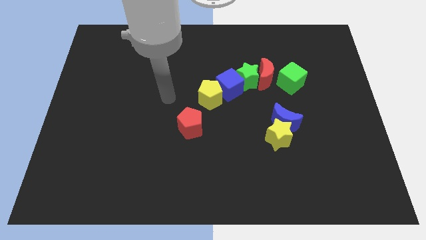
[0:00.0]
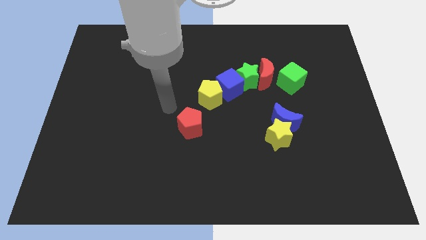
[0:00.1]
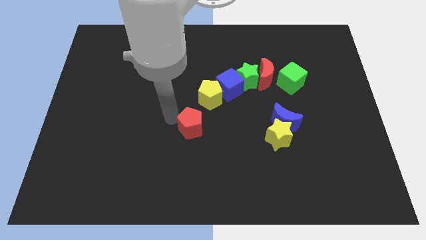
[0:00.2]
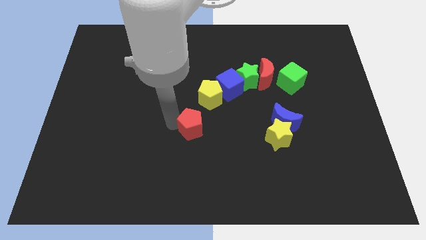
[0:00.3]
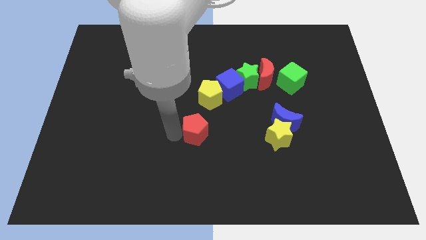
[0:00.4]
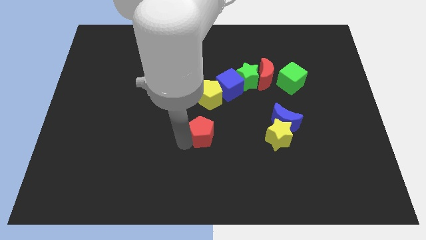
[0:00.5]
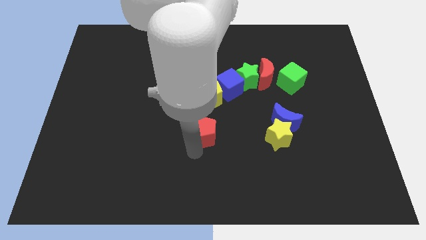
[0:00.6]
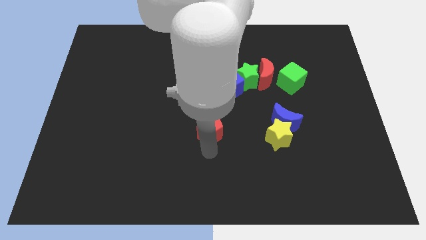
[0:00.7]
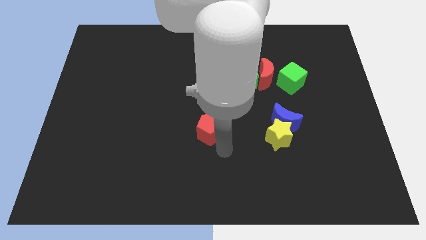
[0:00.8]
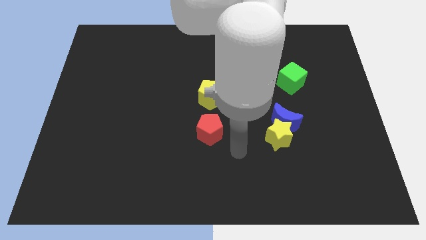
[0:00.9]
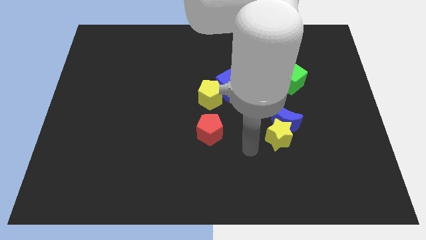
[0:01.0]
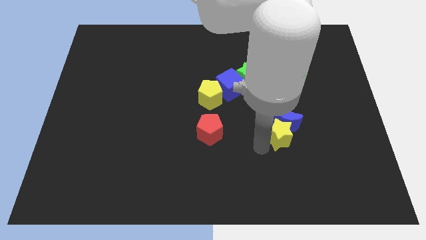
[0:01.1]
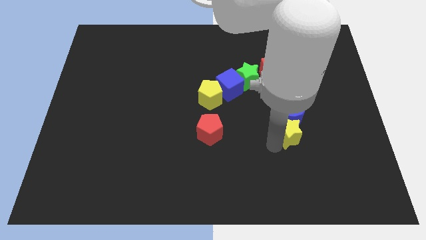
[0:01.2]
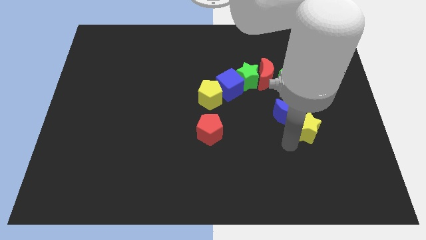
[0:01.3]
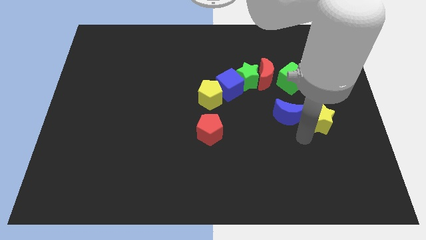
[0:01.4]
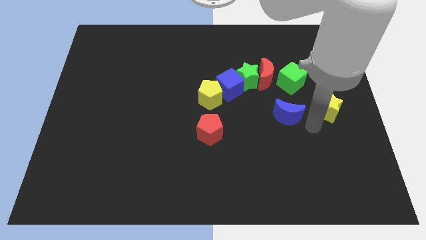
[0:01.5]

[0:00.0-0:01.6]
move the blue moon away from the yellow star

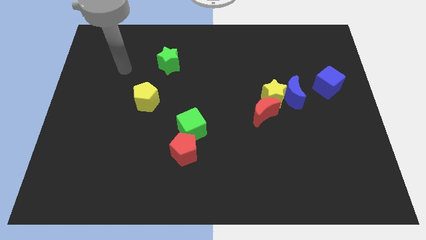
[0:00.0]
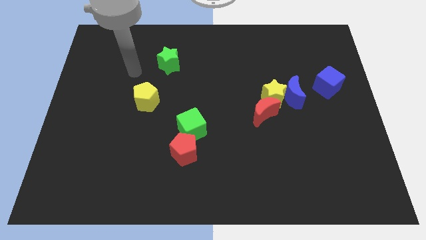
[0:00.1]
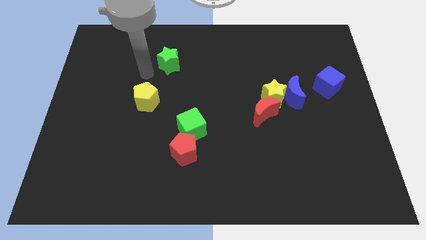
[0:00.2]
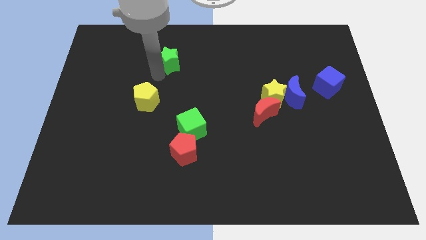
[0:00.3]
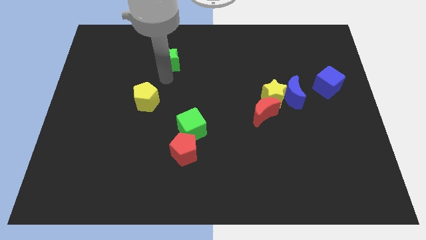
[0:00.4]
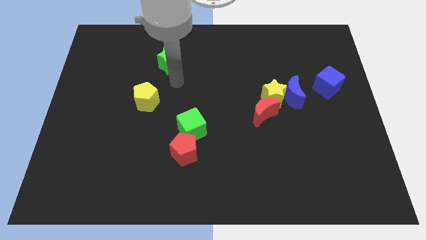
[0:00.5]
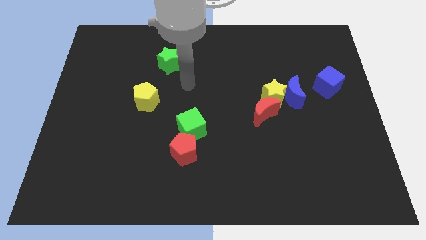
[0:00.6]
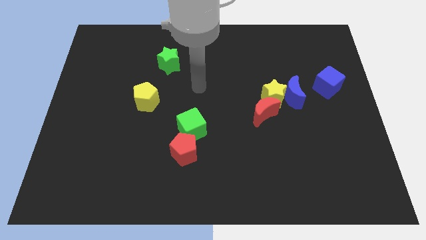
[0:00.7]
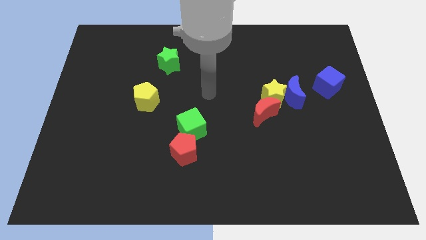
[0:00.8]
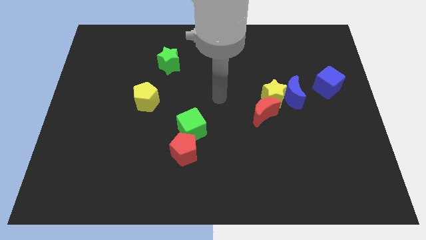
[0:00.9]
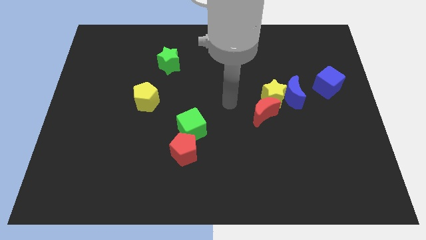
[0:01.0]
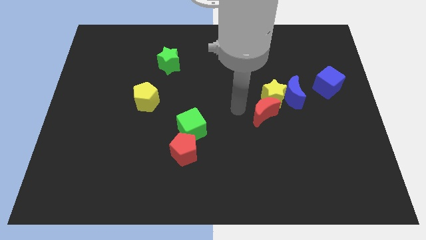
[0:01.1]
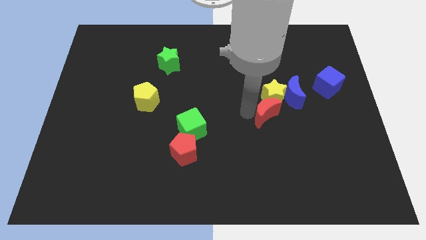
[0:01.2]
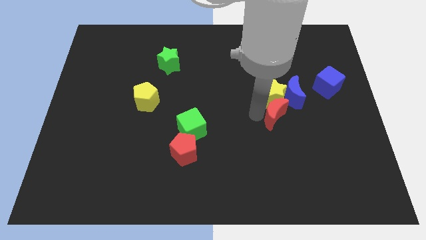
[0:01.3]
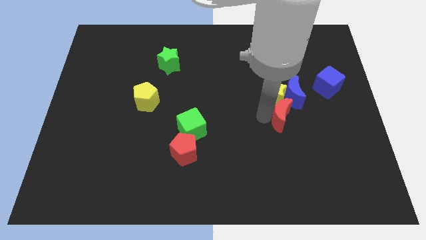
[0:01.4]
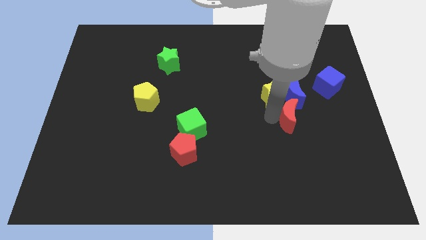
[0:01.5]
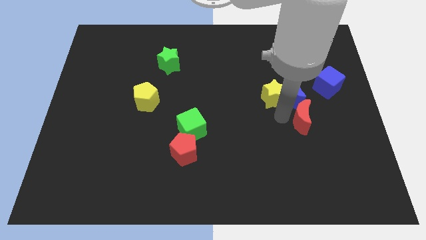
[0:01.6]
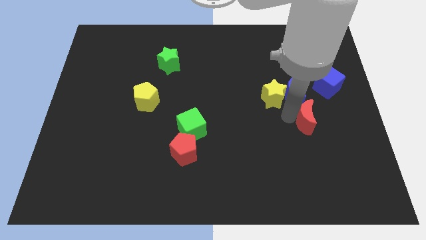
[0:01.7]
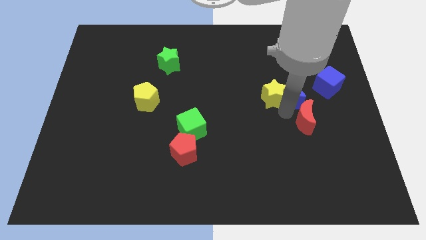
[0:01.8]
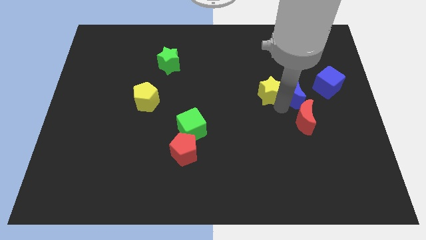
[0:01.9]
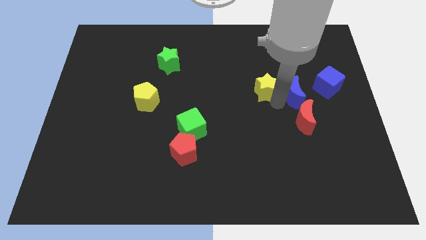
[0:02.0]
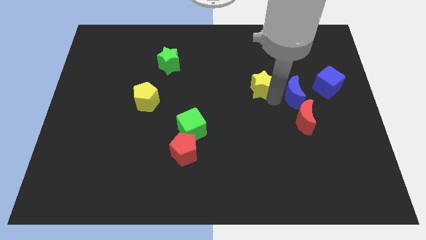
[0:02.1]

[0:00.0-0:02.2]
pull the yellow star apart from the blue moon and red moon

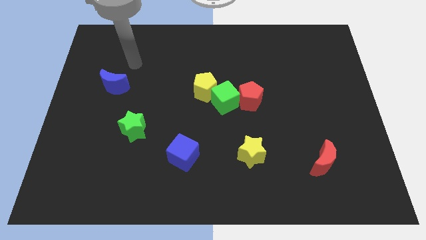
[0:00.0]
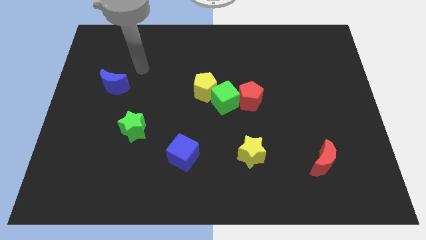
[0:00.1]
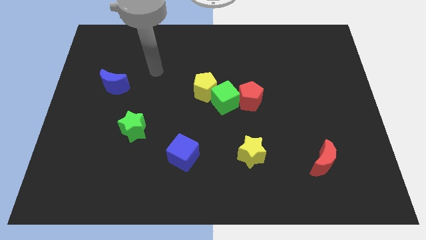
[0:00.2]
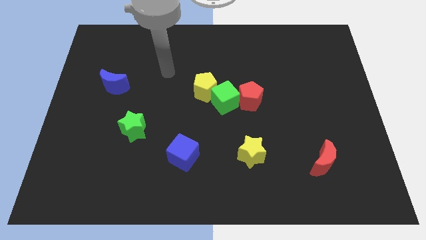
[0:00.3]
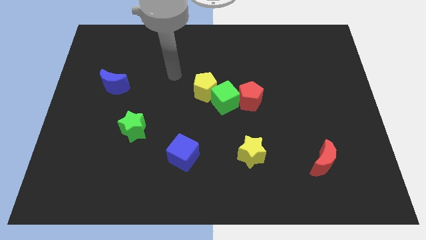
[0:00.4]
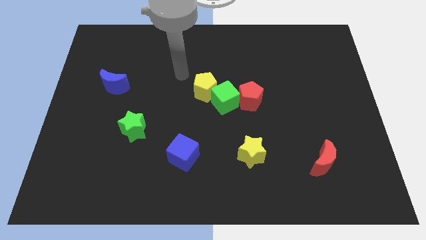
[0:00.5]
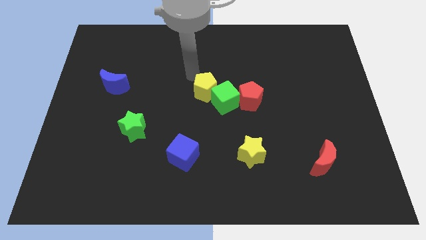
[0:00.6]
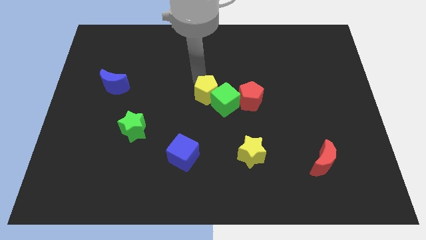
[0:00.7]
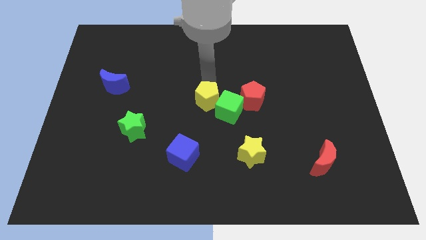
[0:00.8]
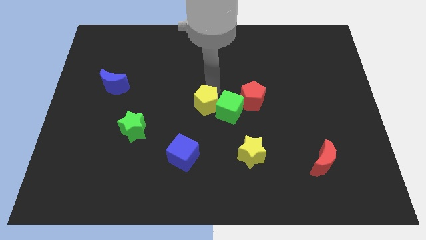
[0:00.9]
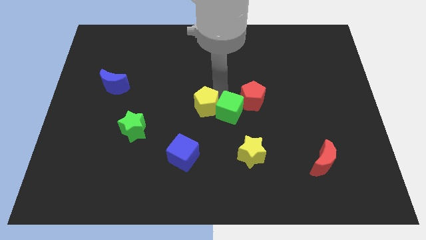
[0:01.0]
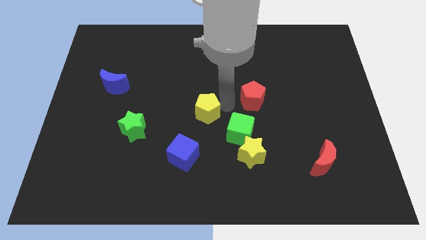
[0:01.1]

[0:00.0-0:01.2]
move the red pentagon away from the green cube

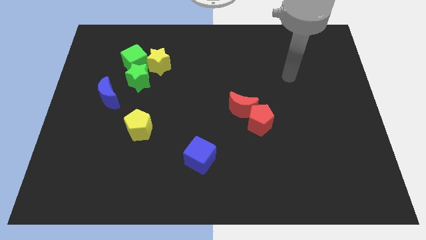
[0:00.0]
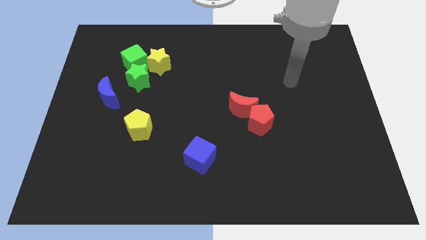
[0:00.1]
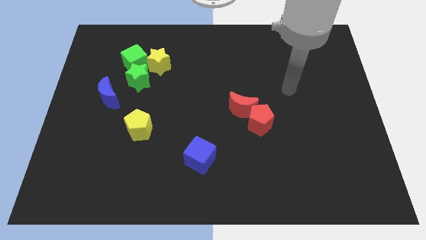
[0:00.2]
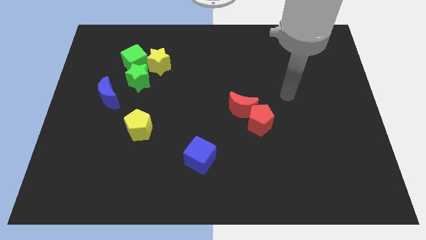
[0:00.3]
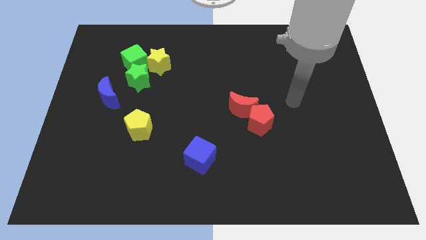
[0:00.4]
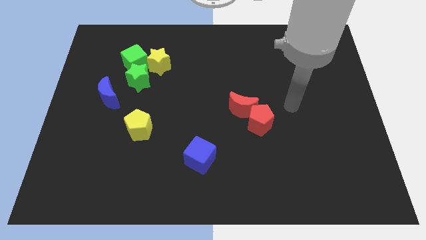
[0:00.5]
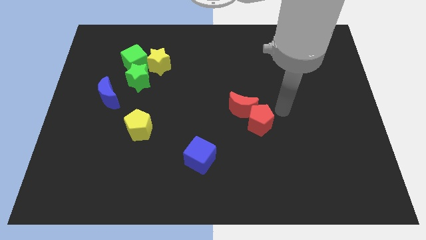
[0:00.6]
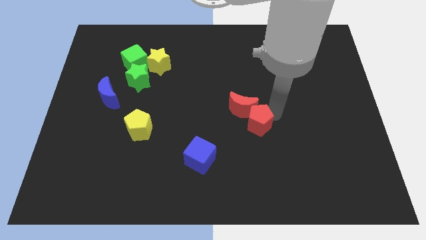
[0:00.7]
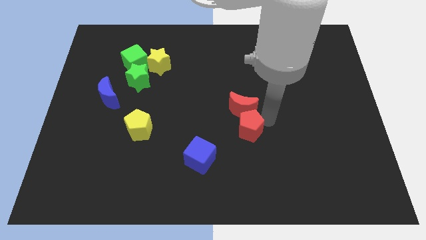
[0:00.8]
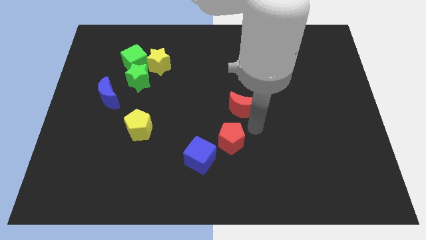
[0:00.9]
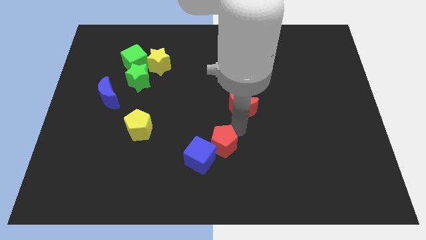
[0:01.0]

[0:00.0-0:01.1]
move the red moon away from the red pentagon

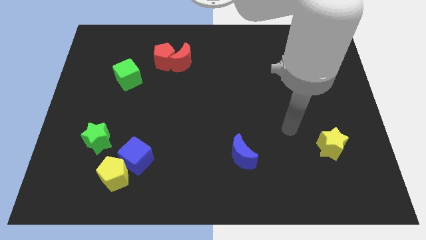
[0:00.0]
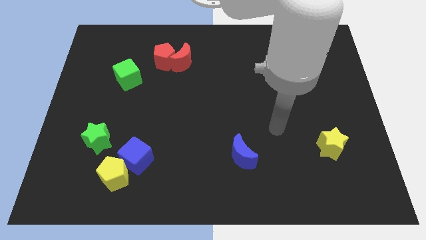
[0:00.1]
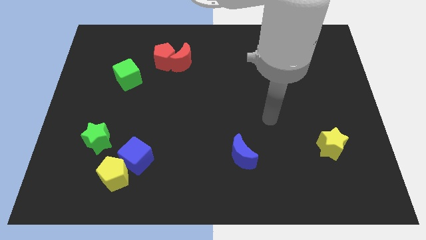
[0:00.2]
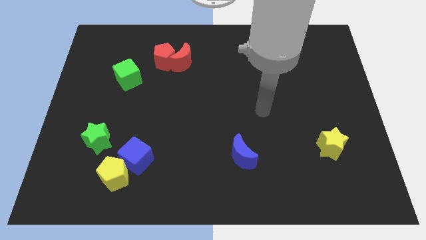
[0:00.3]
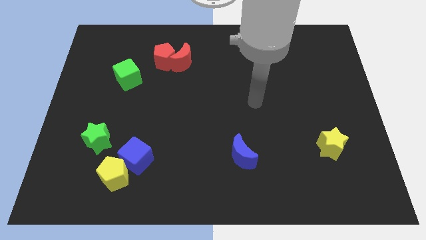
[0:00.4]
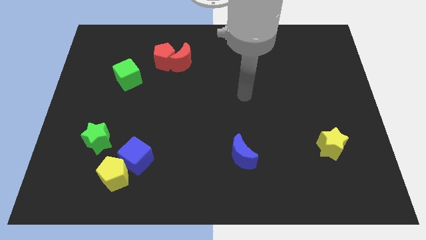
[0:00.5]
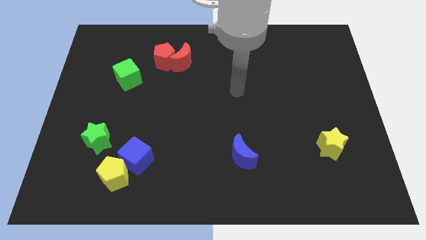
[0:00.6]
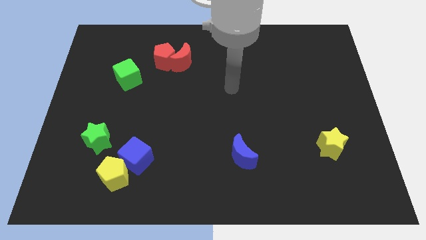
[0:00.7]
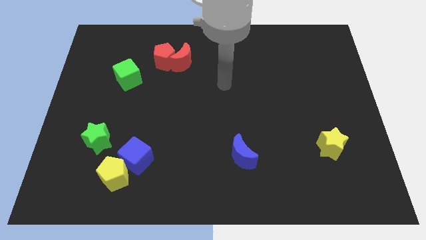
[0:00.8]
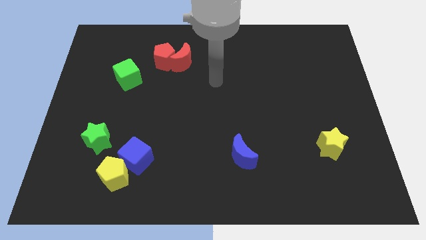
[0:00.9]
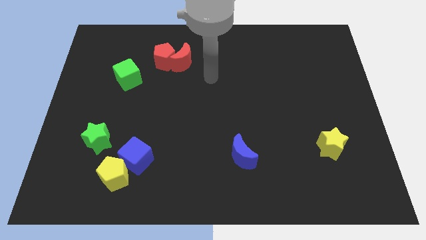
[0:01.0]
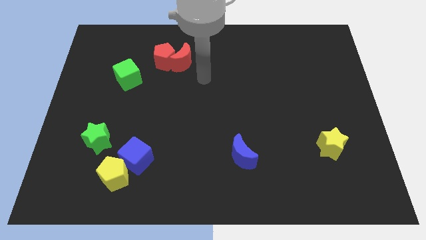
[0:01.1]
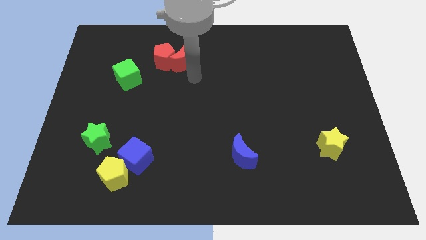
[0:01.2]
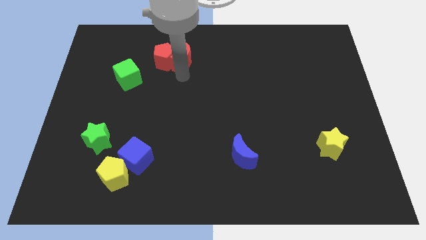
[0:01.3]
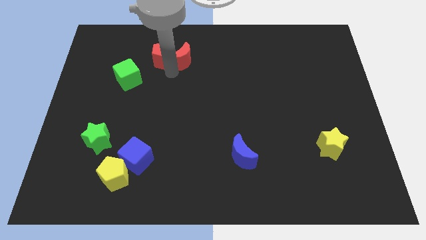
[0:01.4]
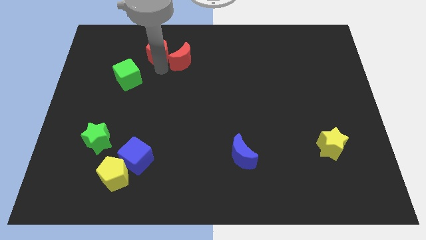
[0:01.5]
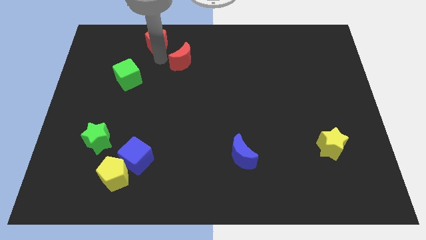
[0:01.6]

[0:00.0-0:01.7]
separate the red moon from the red pentagon

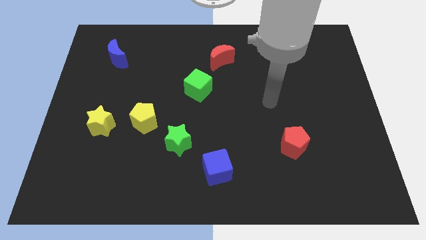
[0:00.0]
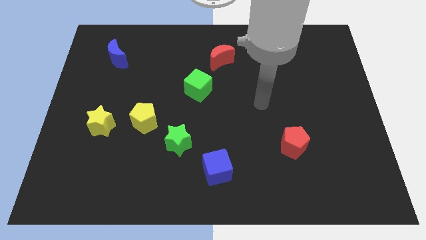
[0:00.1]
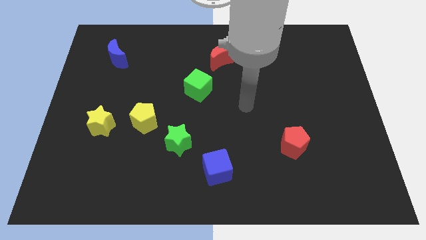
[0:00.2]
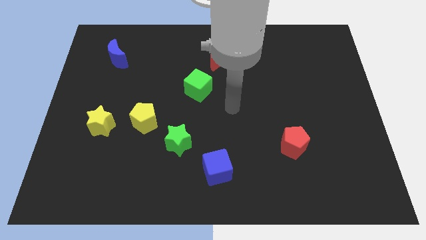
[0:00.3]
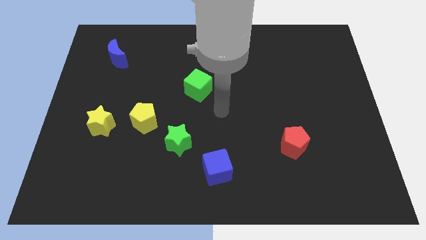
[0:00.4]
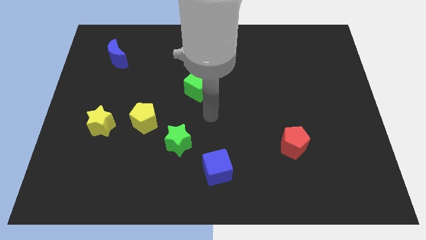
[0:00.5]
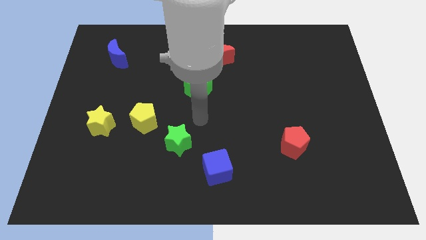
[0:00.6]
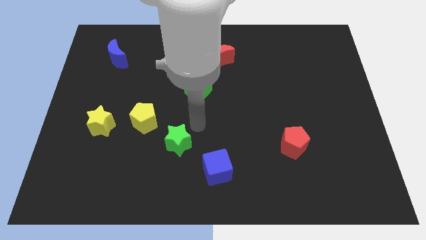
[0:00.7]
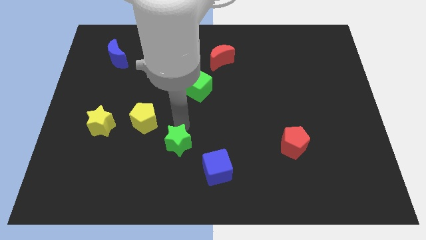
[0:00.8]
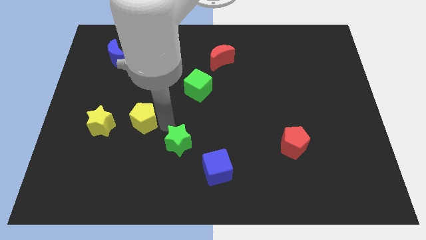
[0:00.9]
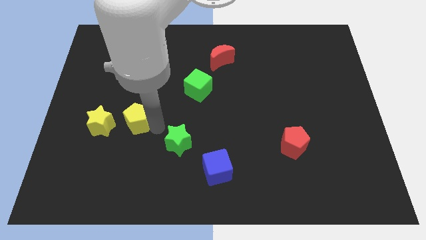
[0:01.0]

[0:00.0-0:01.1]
pull the green star apart from the yellow pentagon

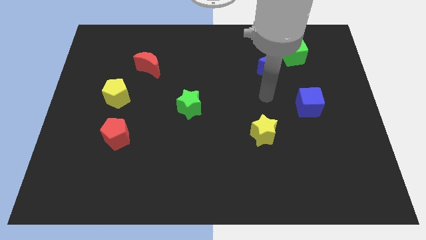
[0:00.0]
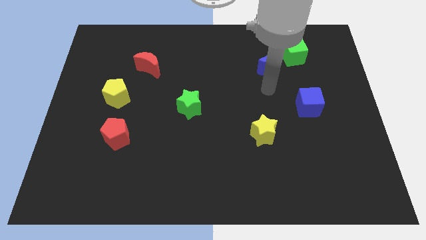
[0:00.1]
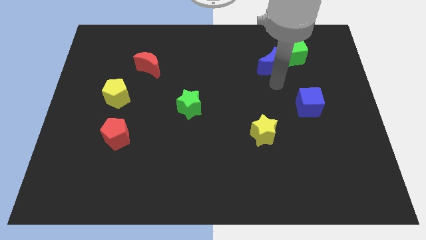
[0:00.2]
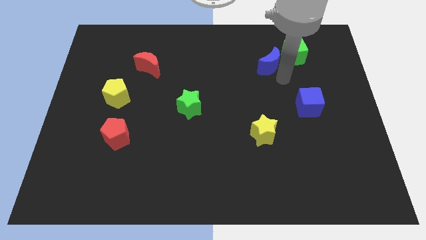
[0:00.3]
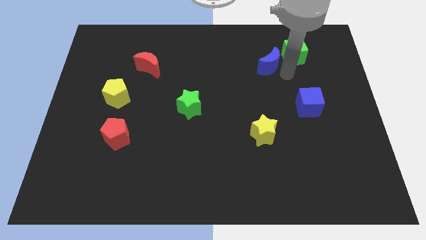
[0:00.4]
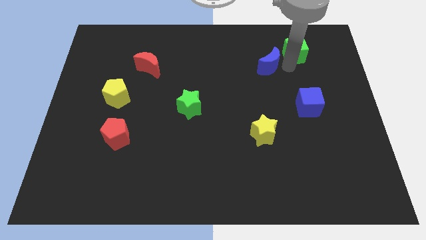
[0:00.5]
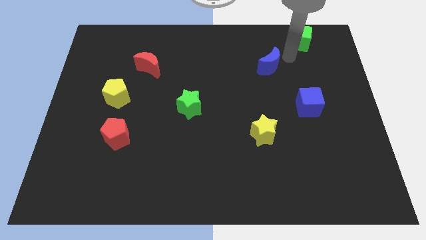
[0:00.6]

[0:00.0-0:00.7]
separate the blue moon from the green cube
